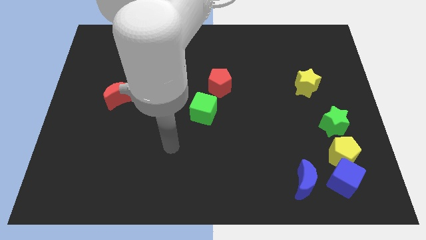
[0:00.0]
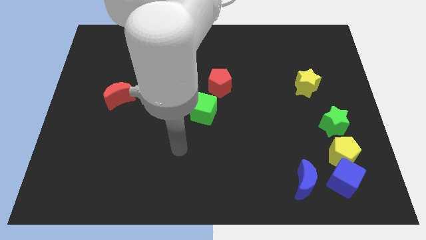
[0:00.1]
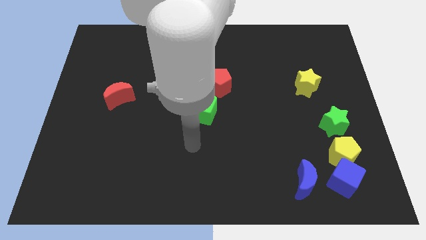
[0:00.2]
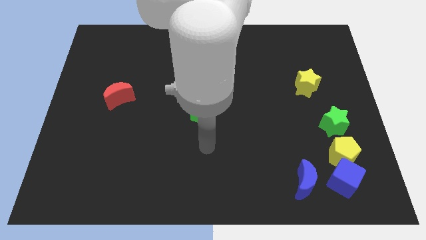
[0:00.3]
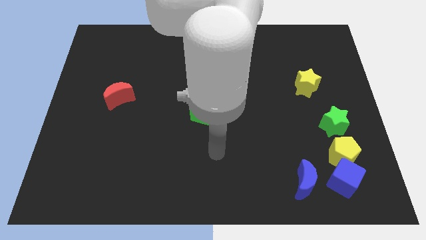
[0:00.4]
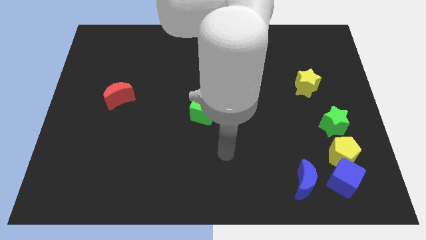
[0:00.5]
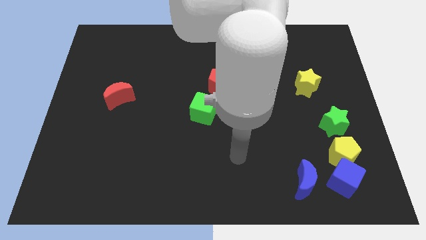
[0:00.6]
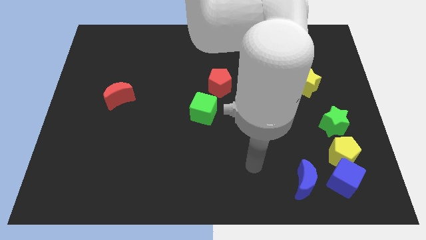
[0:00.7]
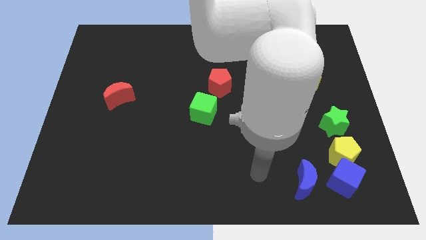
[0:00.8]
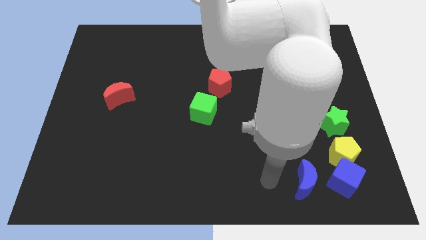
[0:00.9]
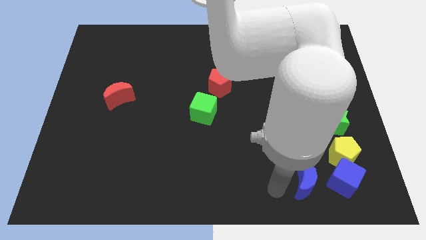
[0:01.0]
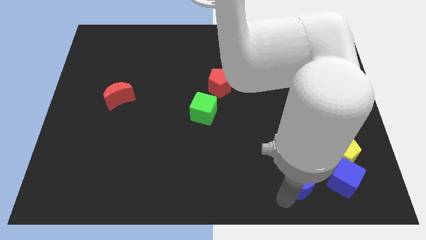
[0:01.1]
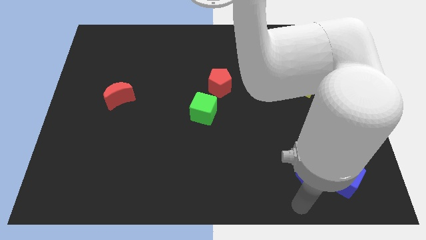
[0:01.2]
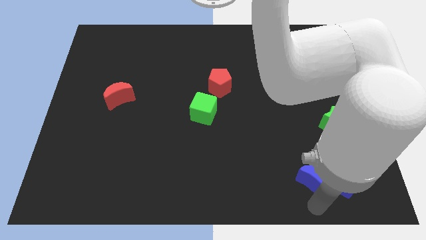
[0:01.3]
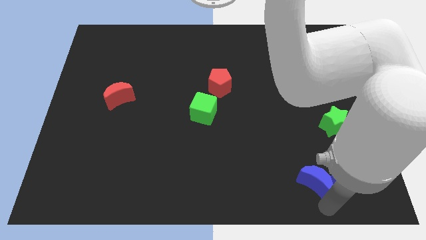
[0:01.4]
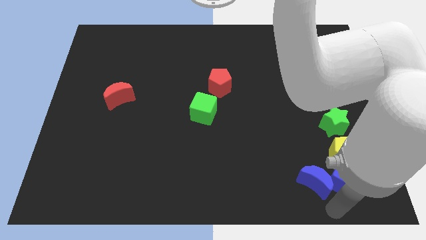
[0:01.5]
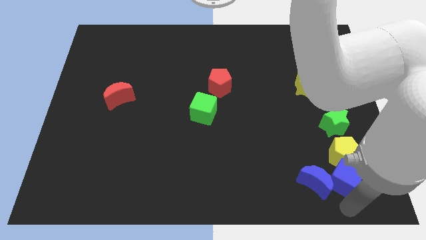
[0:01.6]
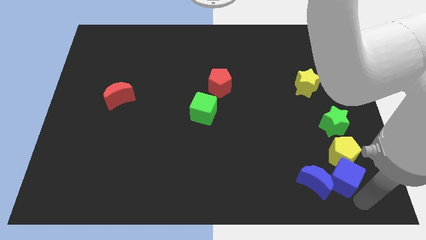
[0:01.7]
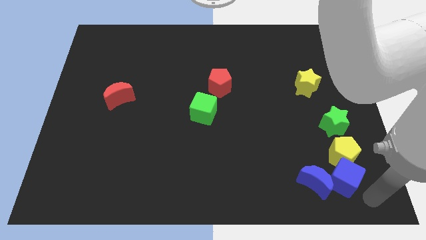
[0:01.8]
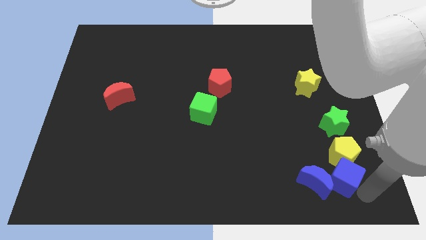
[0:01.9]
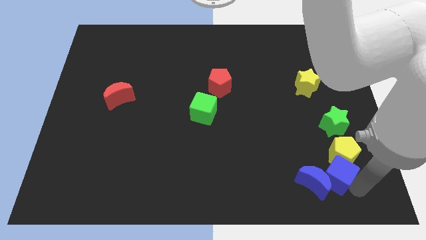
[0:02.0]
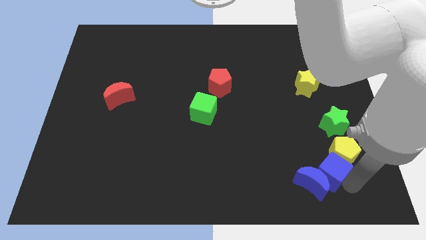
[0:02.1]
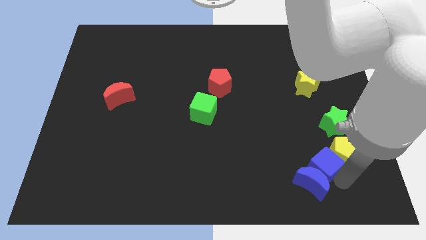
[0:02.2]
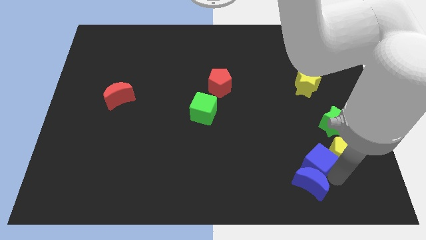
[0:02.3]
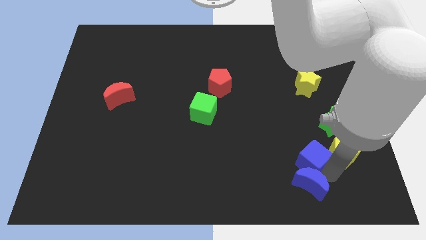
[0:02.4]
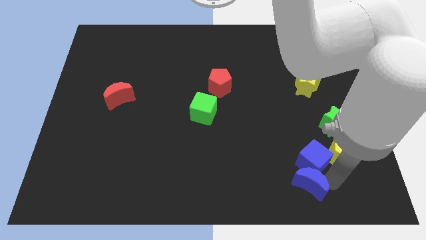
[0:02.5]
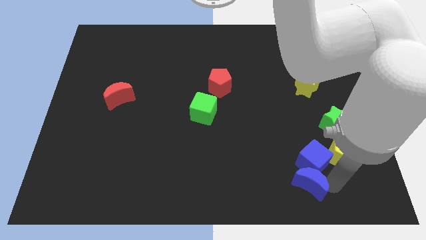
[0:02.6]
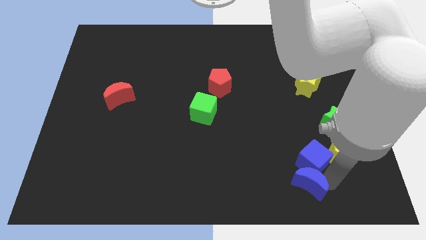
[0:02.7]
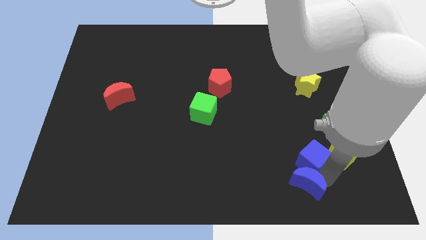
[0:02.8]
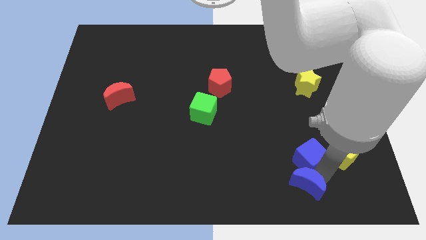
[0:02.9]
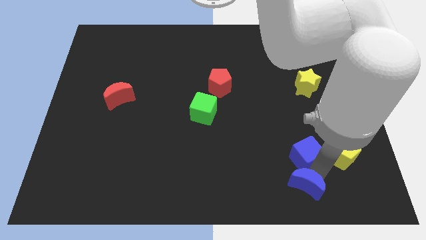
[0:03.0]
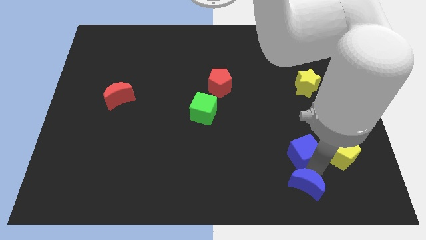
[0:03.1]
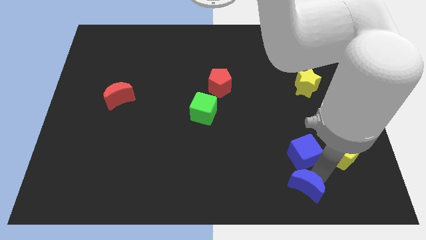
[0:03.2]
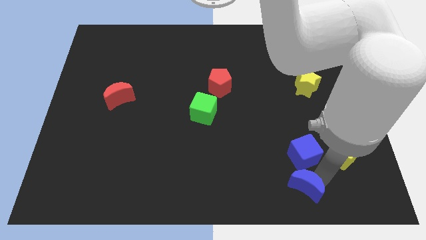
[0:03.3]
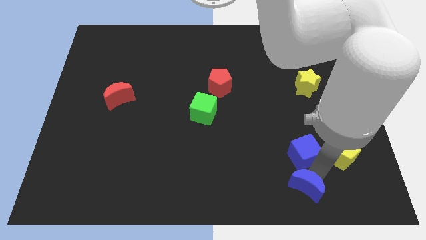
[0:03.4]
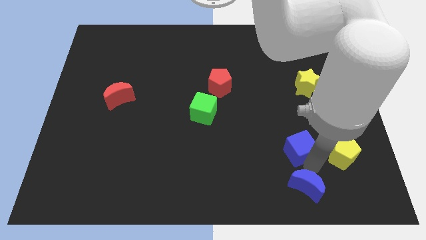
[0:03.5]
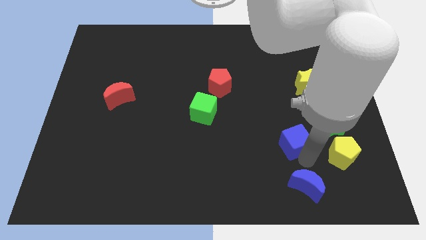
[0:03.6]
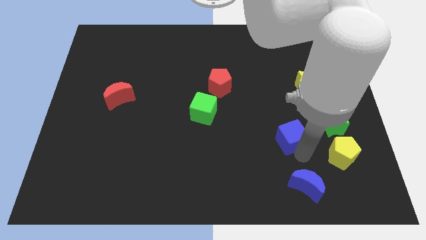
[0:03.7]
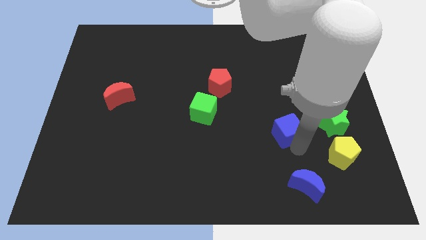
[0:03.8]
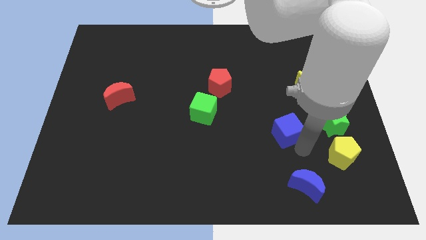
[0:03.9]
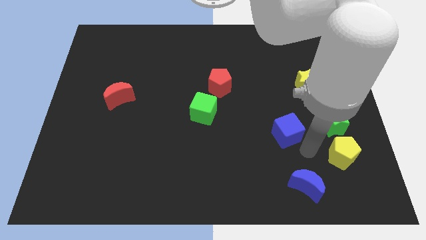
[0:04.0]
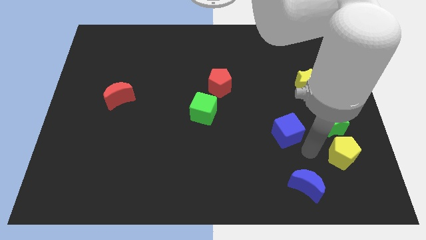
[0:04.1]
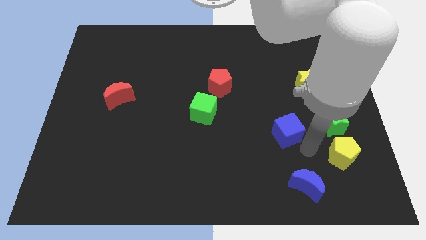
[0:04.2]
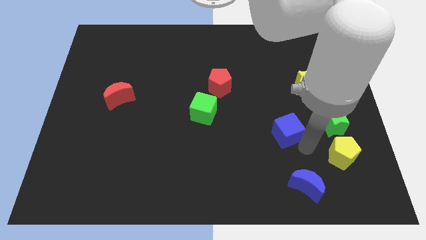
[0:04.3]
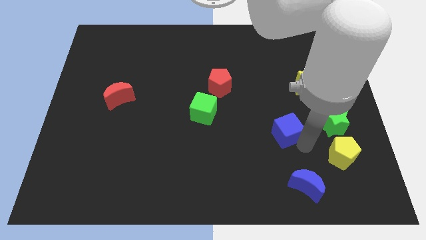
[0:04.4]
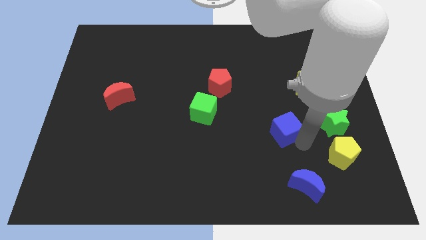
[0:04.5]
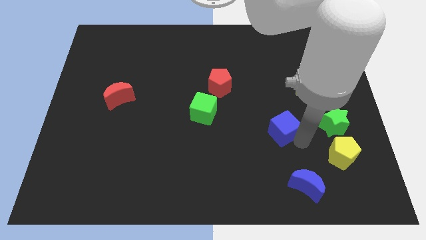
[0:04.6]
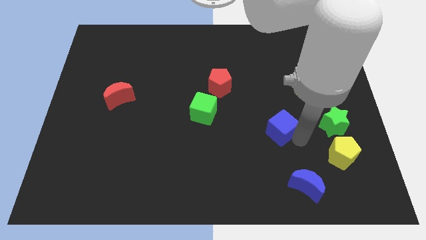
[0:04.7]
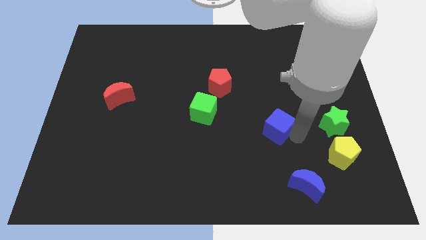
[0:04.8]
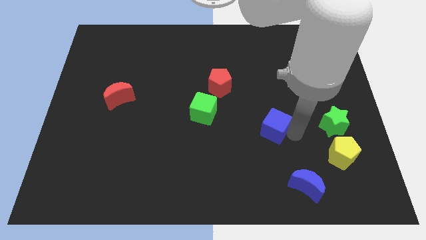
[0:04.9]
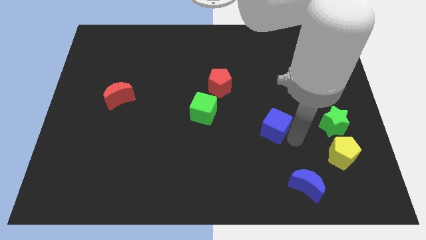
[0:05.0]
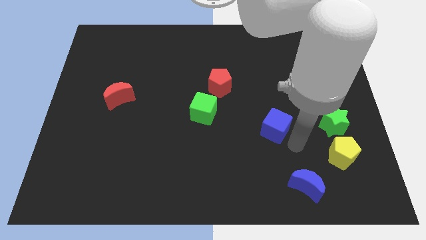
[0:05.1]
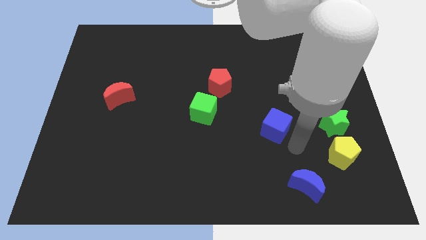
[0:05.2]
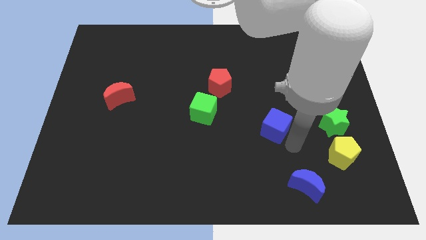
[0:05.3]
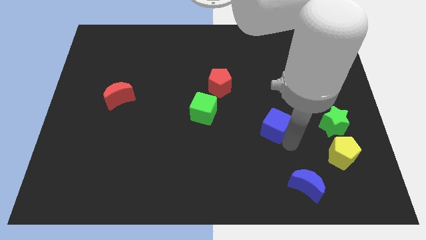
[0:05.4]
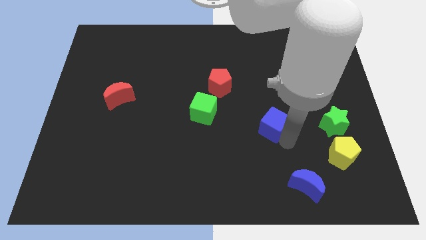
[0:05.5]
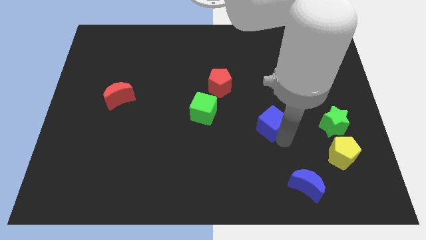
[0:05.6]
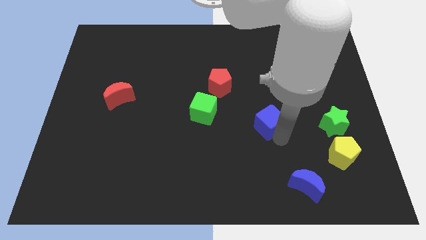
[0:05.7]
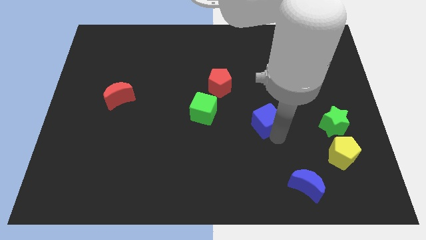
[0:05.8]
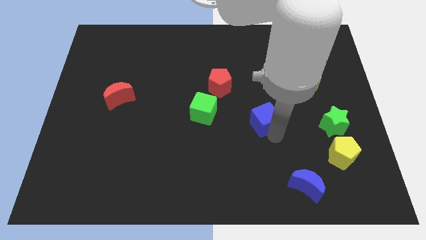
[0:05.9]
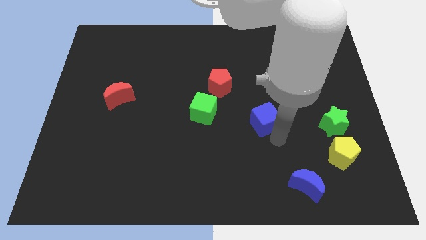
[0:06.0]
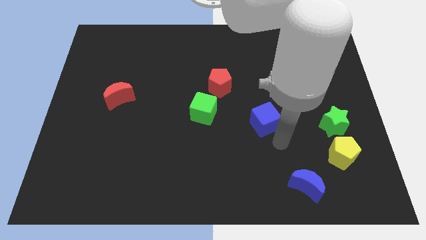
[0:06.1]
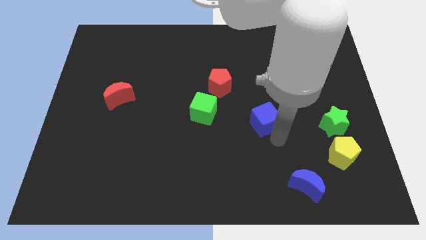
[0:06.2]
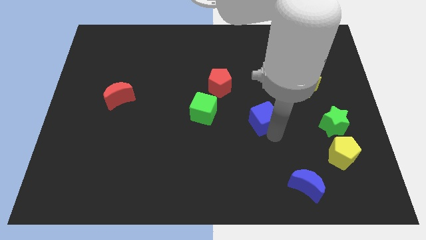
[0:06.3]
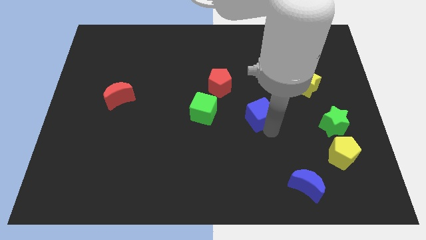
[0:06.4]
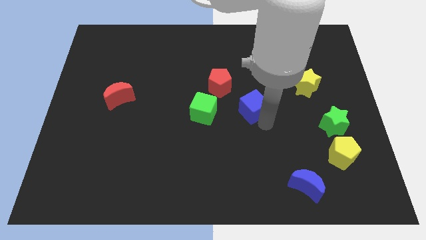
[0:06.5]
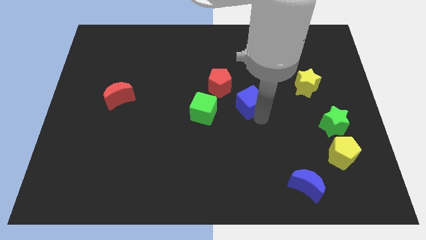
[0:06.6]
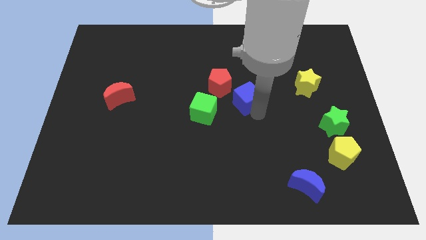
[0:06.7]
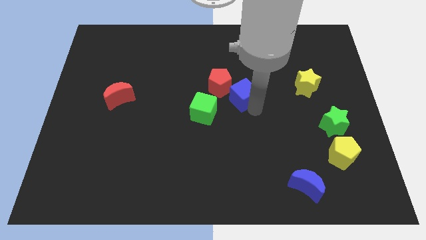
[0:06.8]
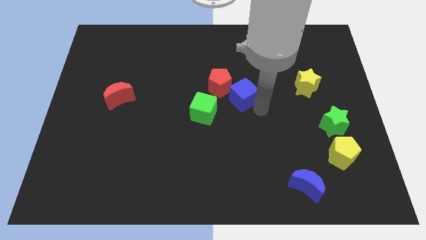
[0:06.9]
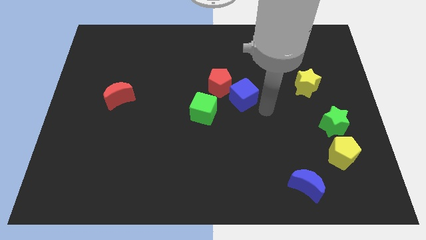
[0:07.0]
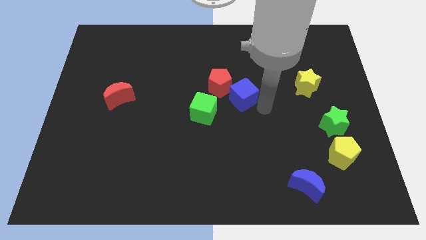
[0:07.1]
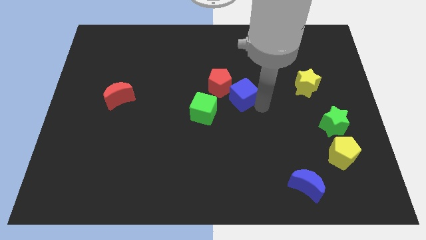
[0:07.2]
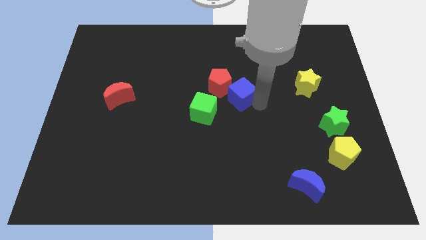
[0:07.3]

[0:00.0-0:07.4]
slide the blue cube close to the red pentagon

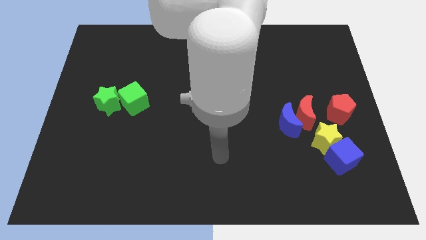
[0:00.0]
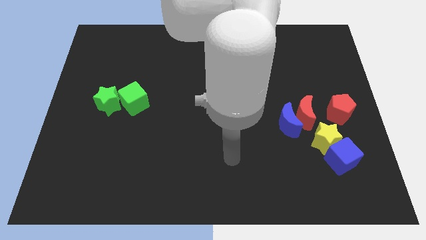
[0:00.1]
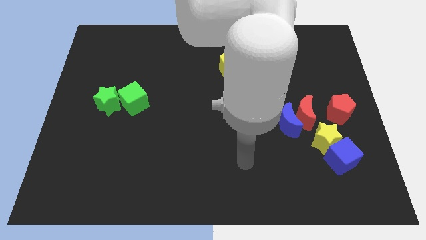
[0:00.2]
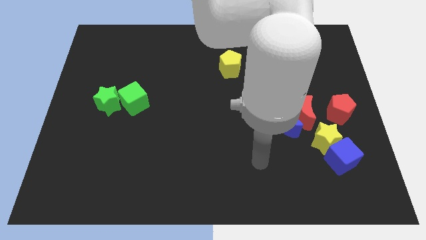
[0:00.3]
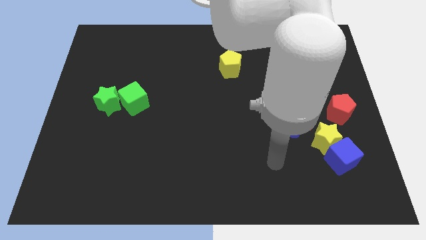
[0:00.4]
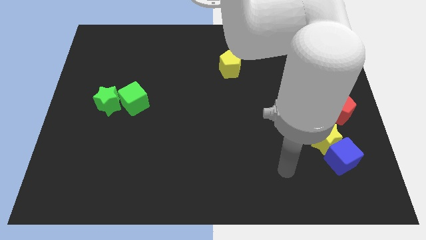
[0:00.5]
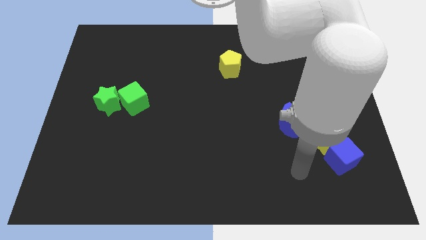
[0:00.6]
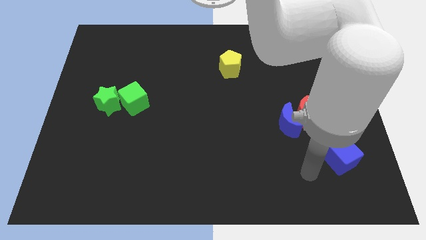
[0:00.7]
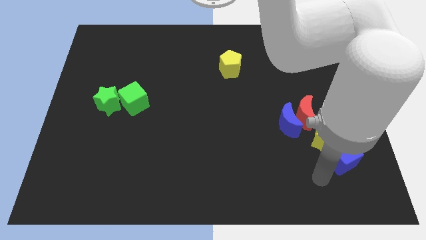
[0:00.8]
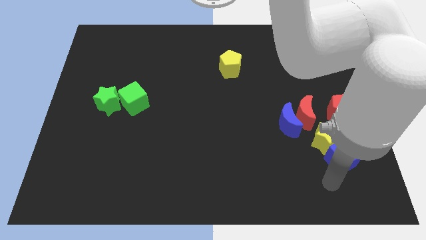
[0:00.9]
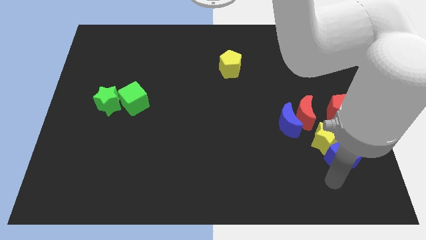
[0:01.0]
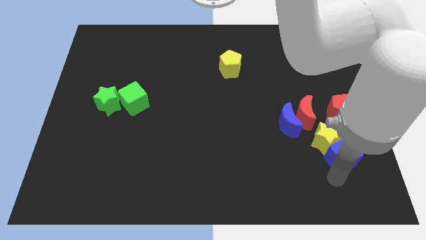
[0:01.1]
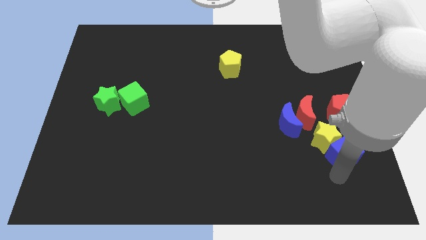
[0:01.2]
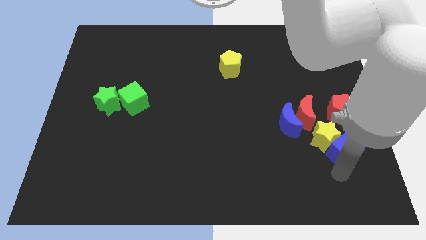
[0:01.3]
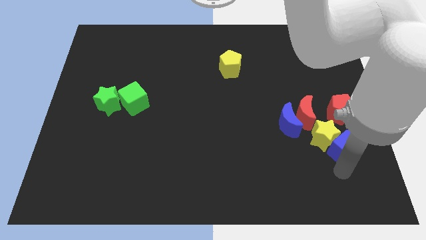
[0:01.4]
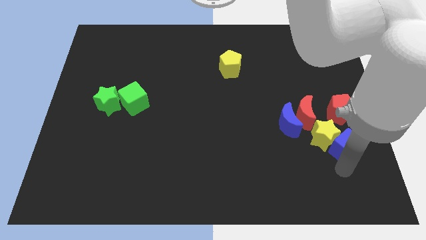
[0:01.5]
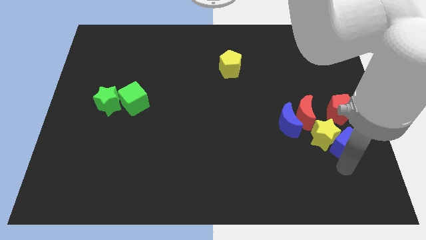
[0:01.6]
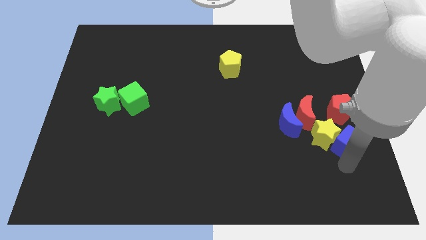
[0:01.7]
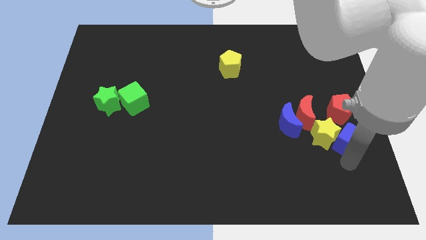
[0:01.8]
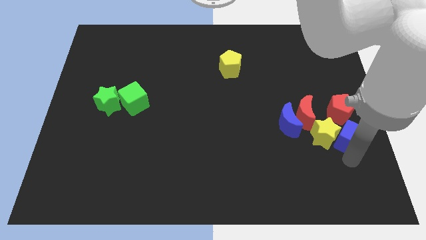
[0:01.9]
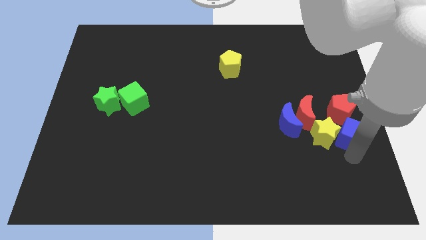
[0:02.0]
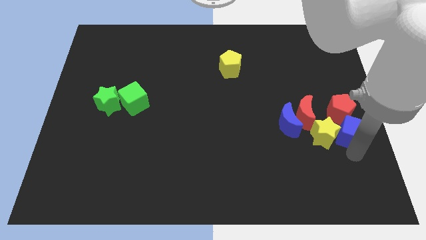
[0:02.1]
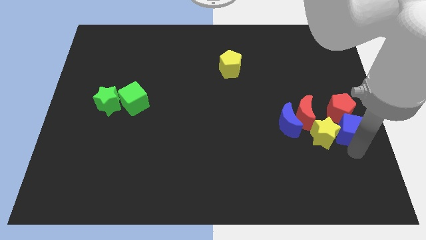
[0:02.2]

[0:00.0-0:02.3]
put the blue cube to the red pentagon
